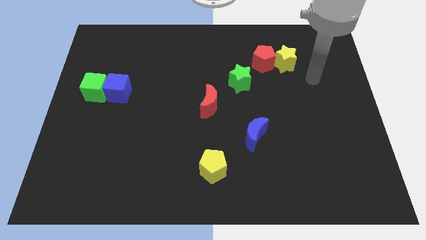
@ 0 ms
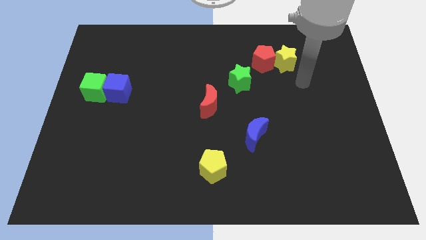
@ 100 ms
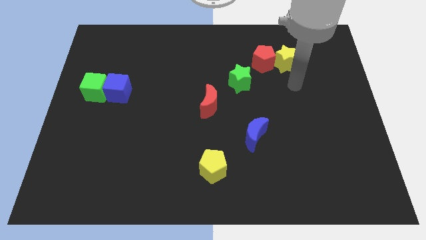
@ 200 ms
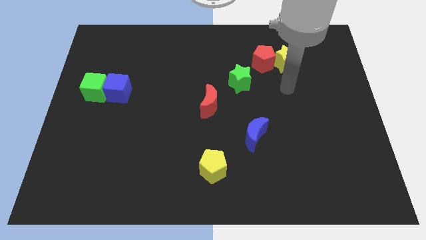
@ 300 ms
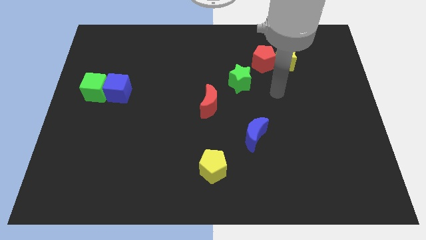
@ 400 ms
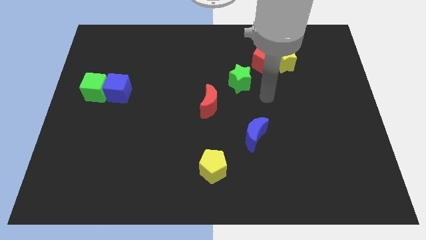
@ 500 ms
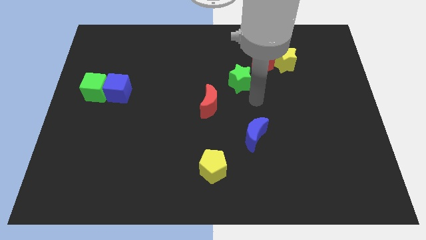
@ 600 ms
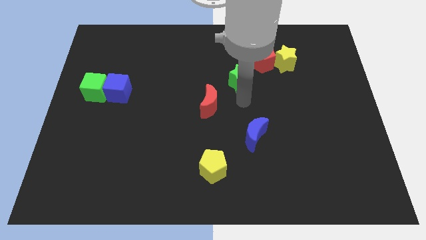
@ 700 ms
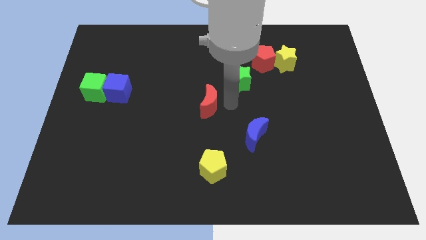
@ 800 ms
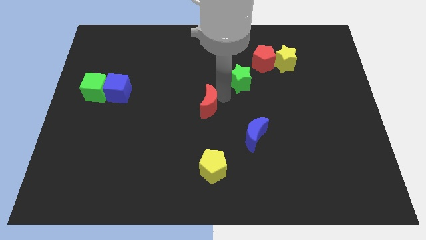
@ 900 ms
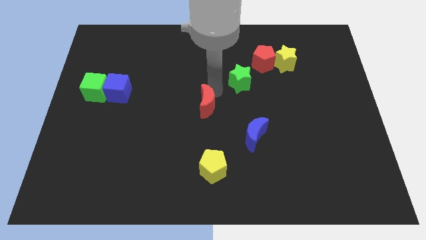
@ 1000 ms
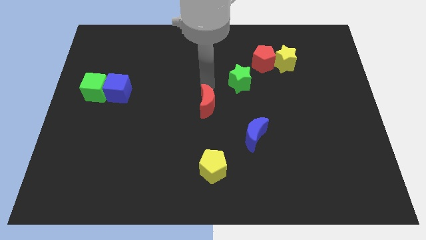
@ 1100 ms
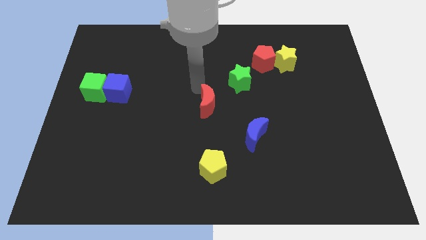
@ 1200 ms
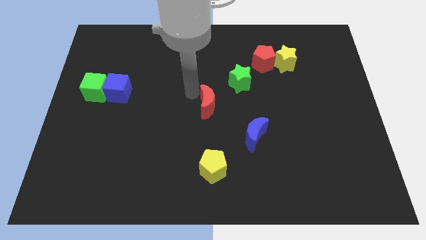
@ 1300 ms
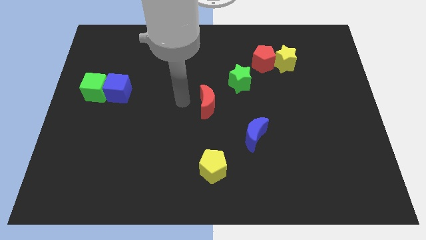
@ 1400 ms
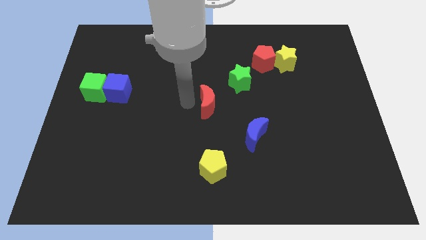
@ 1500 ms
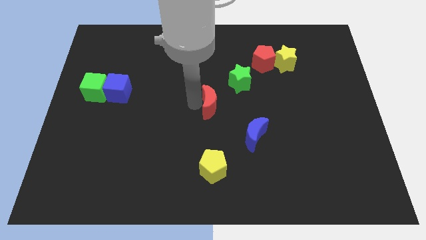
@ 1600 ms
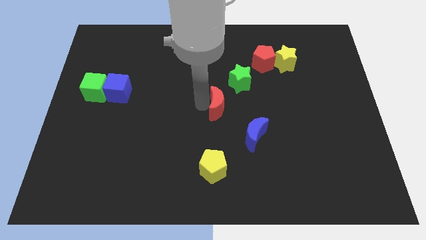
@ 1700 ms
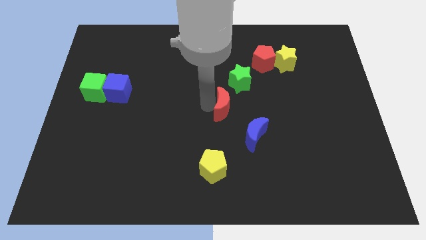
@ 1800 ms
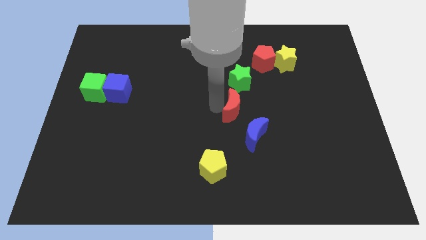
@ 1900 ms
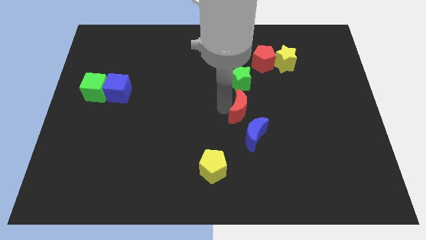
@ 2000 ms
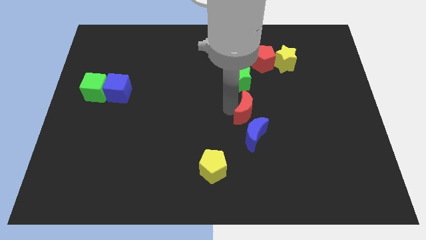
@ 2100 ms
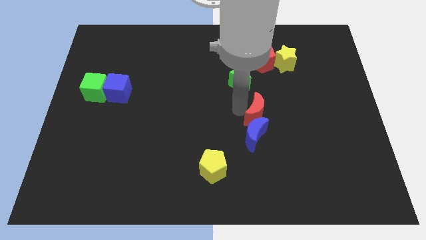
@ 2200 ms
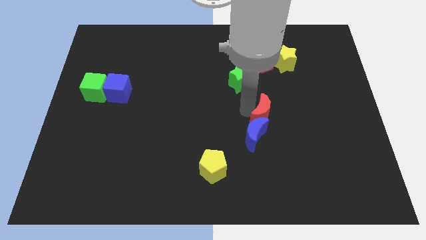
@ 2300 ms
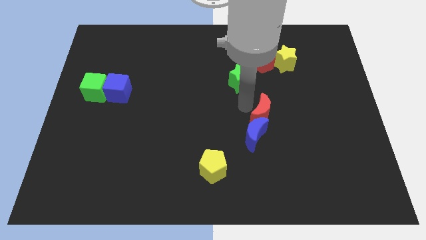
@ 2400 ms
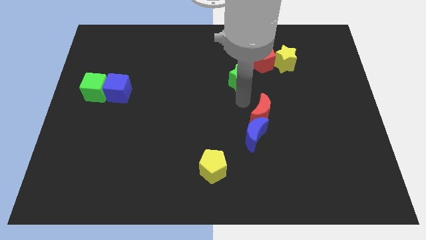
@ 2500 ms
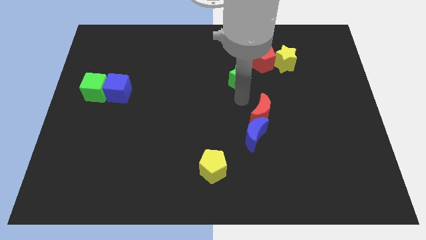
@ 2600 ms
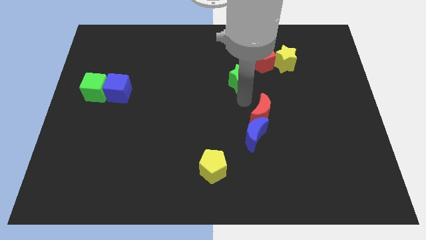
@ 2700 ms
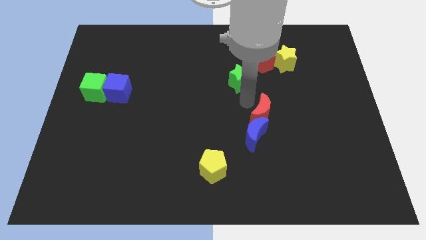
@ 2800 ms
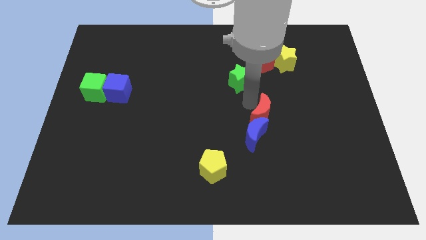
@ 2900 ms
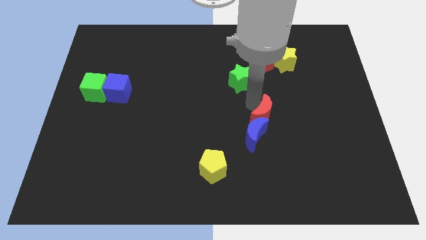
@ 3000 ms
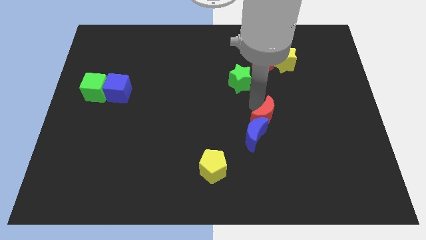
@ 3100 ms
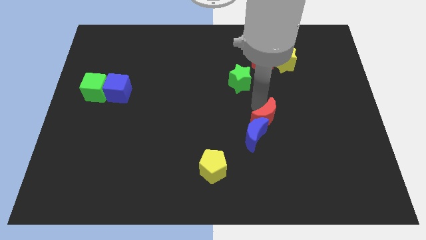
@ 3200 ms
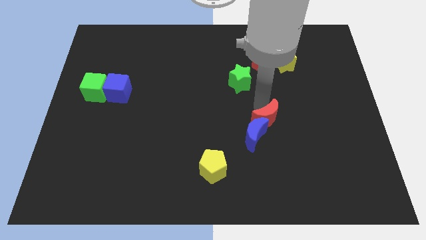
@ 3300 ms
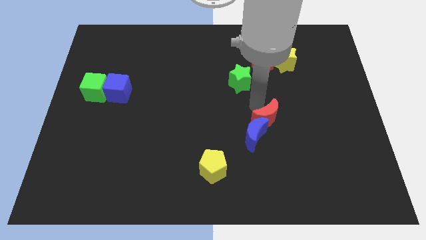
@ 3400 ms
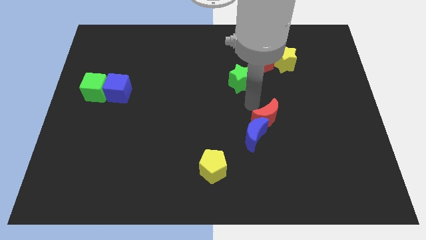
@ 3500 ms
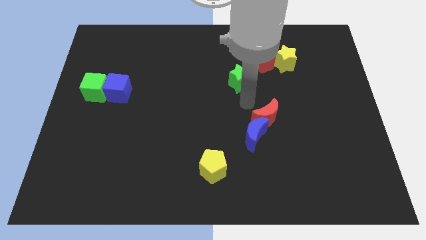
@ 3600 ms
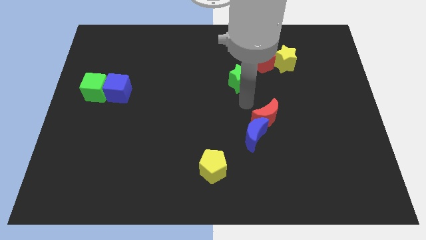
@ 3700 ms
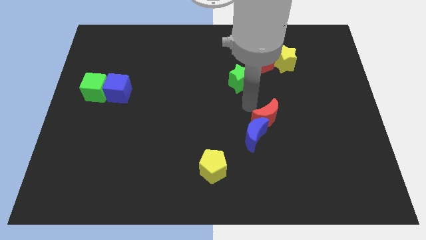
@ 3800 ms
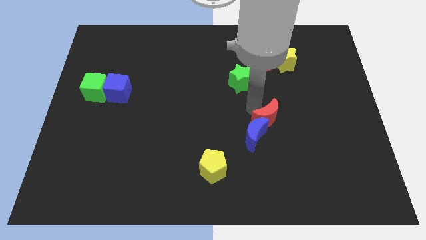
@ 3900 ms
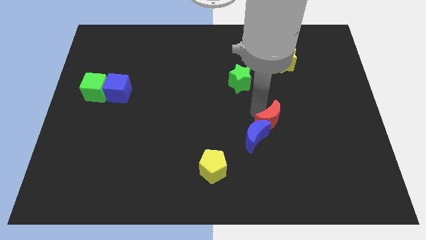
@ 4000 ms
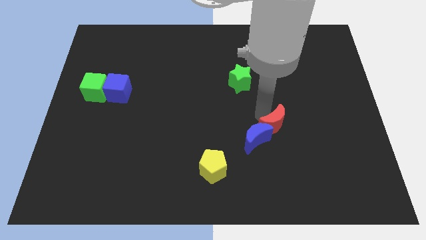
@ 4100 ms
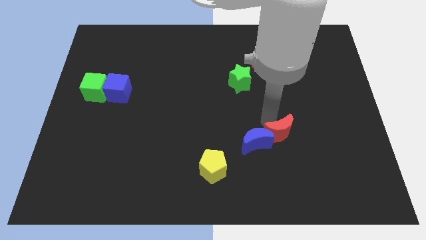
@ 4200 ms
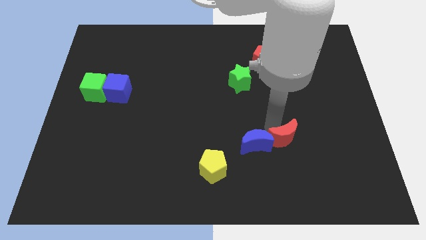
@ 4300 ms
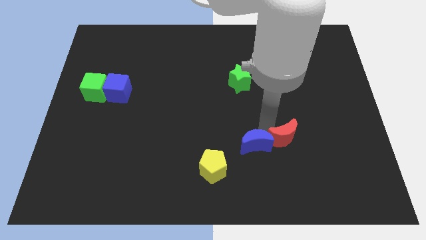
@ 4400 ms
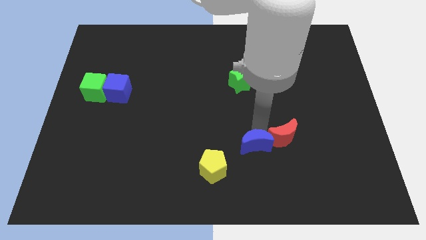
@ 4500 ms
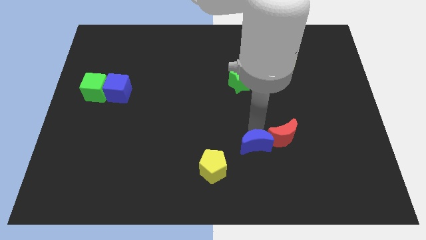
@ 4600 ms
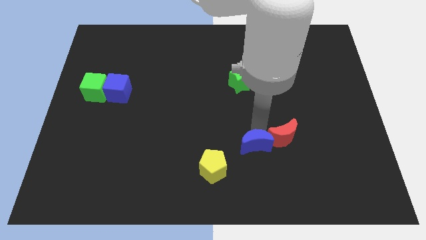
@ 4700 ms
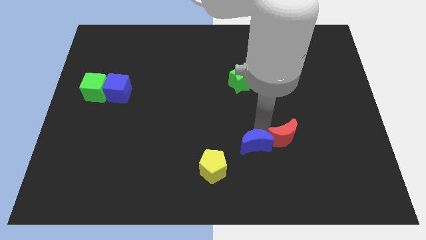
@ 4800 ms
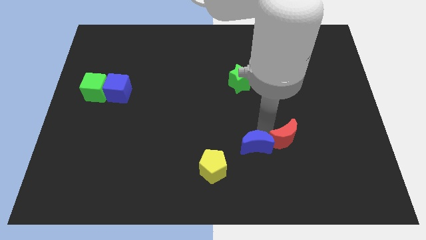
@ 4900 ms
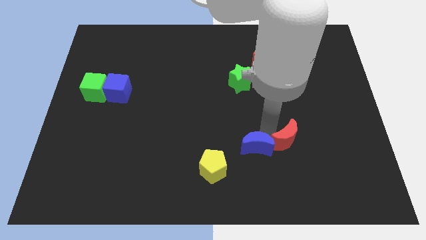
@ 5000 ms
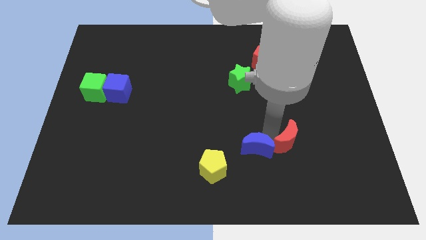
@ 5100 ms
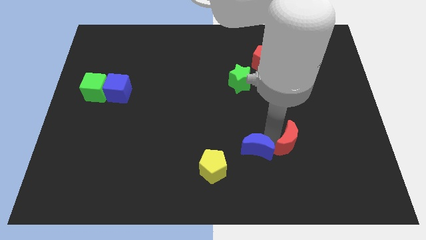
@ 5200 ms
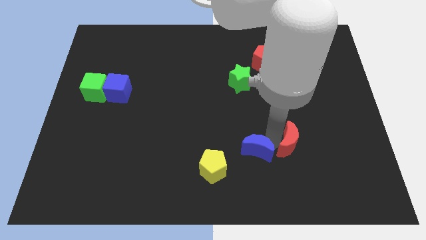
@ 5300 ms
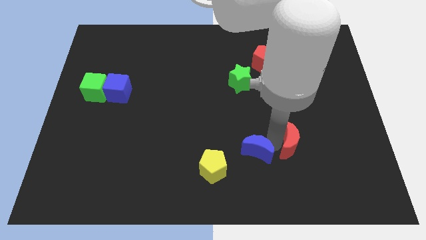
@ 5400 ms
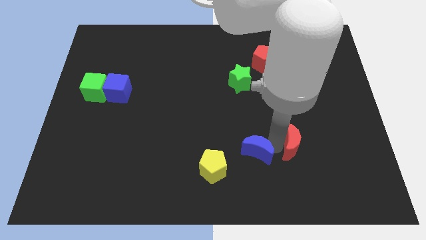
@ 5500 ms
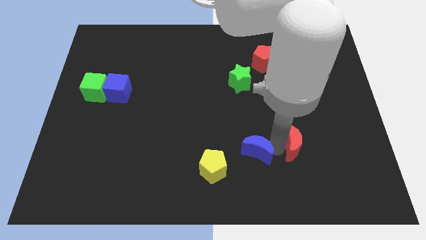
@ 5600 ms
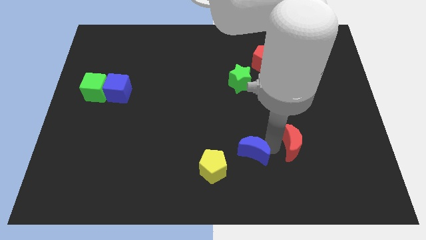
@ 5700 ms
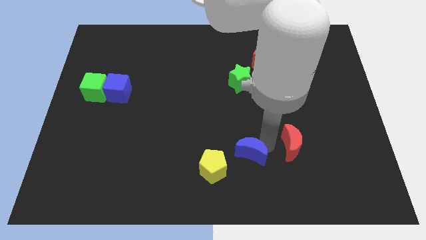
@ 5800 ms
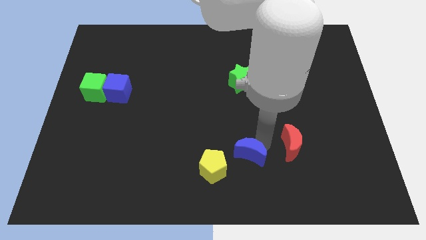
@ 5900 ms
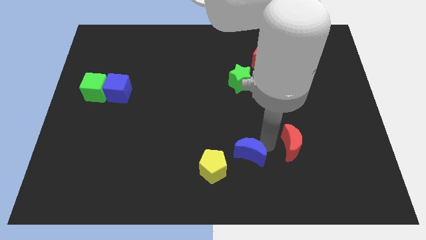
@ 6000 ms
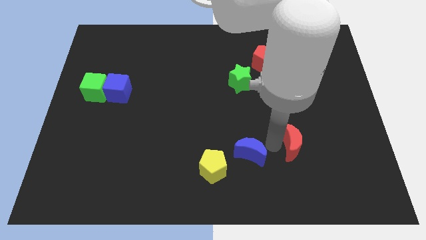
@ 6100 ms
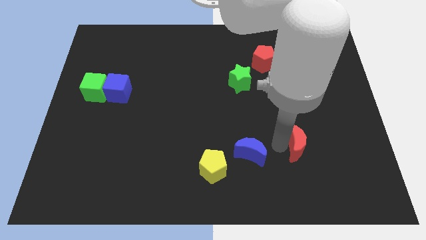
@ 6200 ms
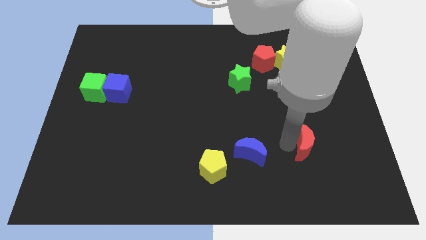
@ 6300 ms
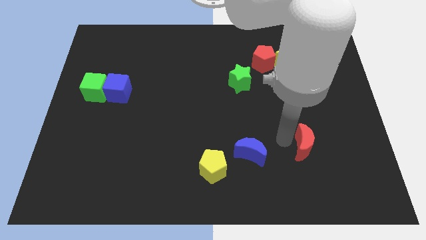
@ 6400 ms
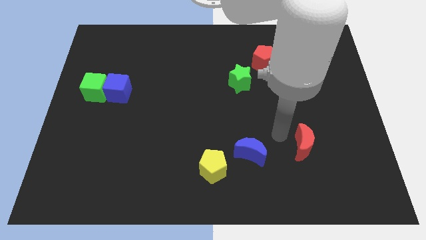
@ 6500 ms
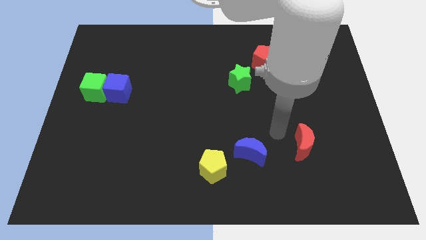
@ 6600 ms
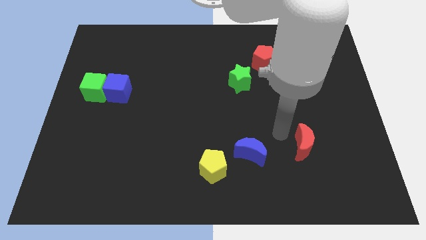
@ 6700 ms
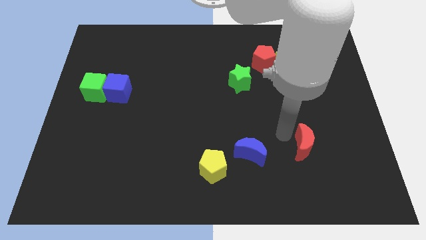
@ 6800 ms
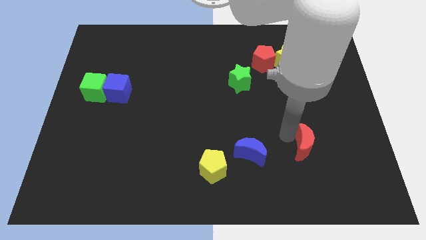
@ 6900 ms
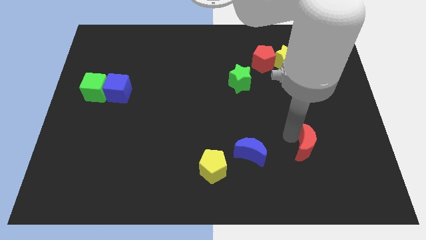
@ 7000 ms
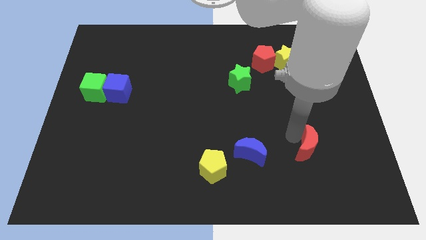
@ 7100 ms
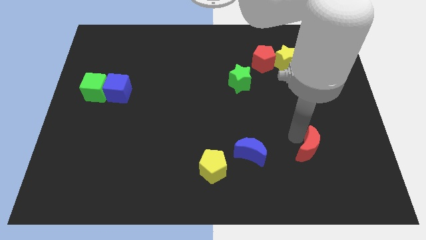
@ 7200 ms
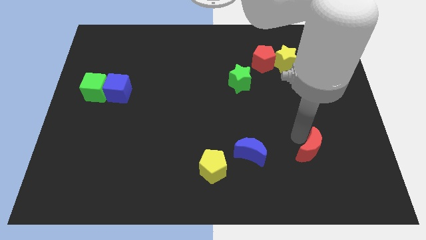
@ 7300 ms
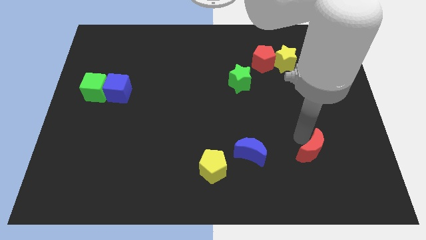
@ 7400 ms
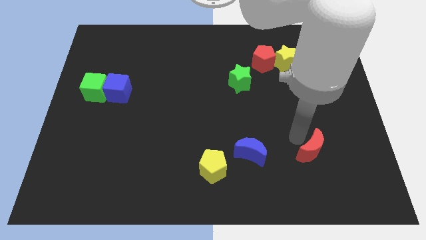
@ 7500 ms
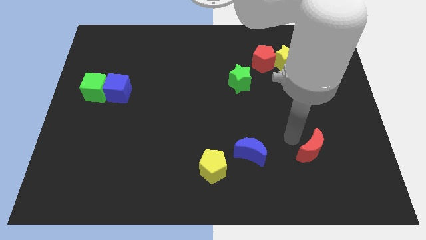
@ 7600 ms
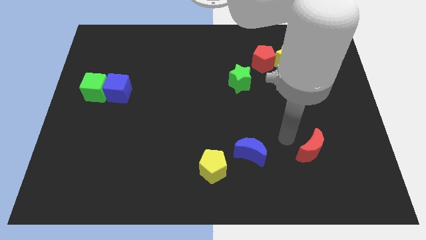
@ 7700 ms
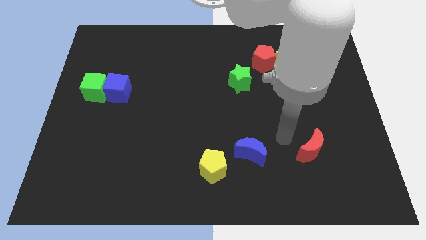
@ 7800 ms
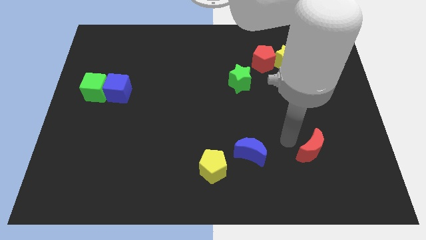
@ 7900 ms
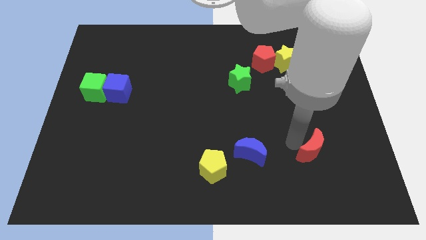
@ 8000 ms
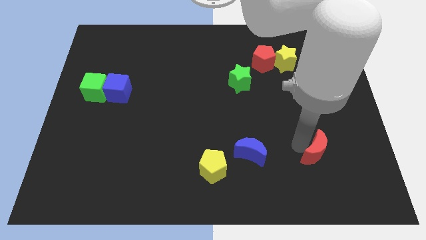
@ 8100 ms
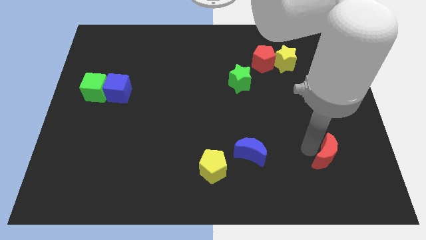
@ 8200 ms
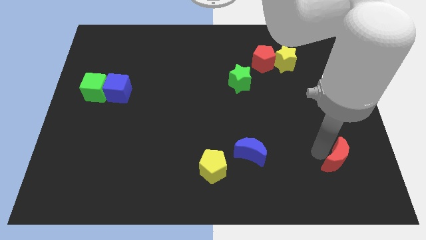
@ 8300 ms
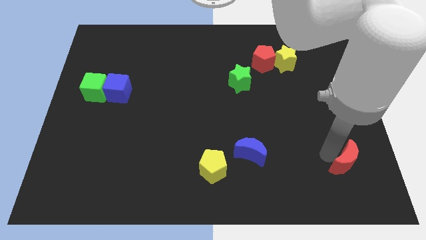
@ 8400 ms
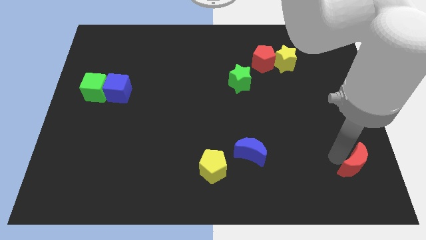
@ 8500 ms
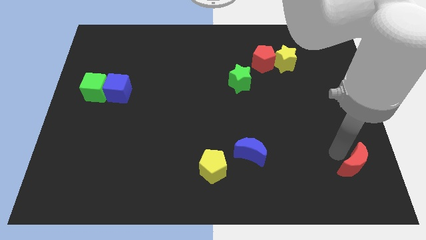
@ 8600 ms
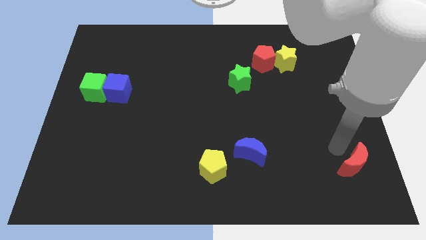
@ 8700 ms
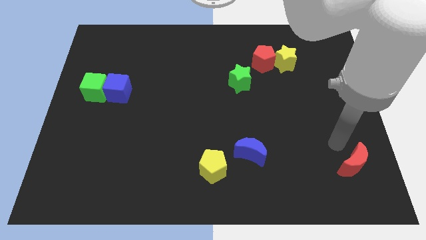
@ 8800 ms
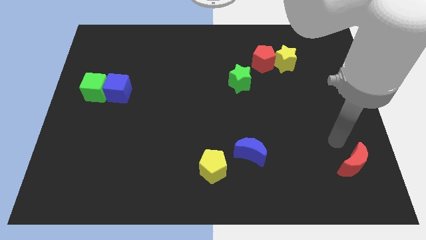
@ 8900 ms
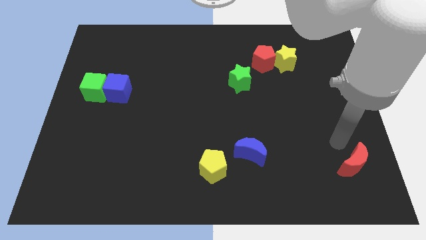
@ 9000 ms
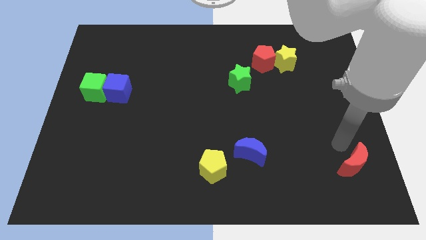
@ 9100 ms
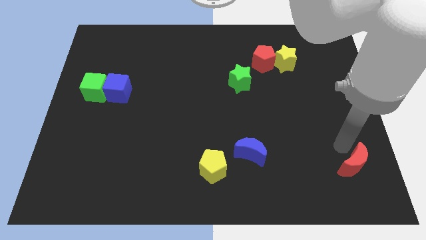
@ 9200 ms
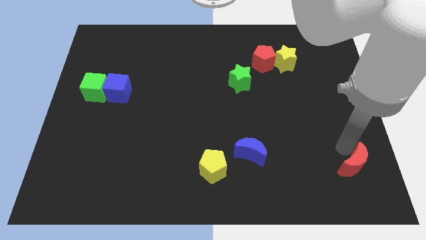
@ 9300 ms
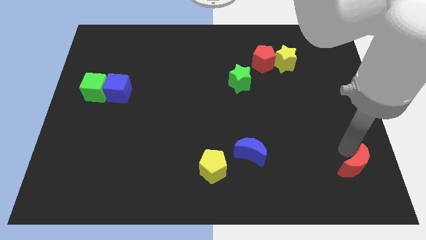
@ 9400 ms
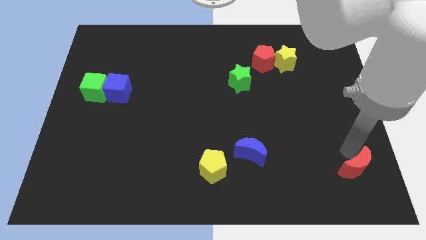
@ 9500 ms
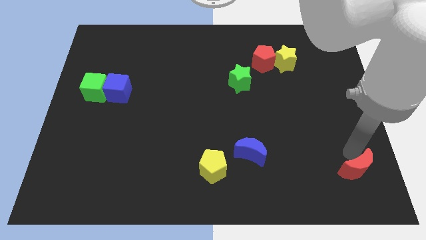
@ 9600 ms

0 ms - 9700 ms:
push the red moon to the bottom right
